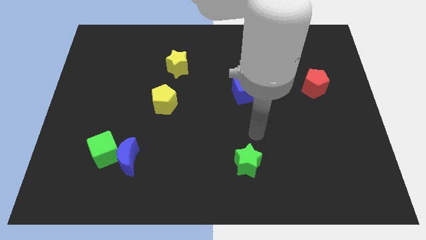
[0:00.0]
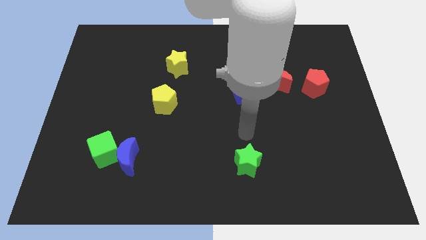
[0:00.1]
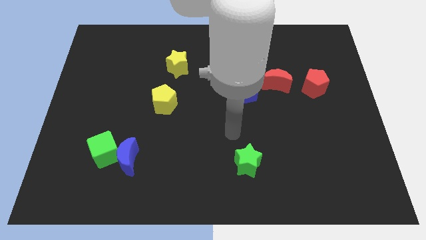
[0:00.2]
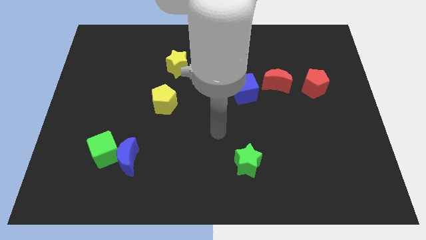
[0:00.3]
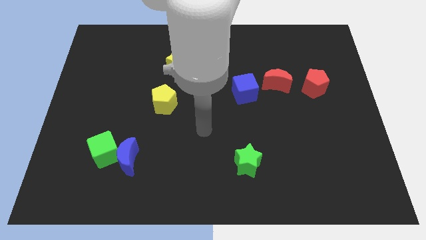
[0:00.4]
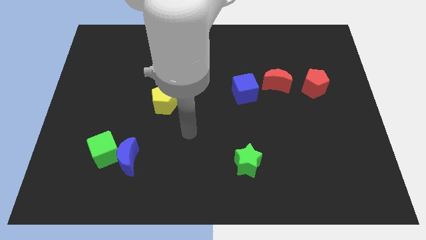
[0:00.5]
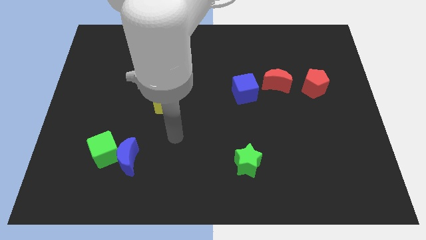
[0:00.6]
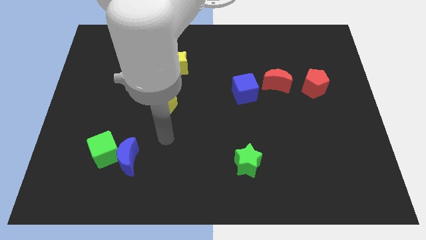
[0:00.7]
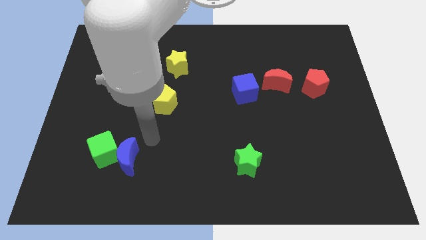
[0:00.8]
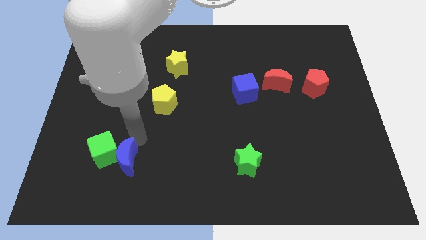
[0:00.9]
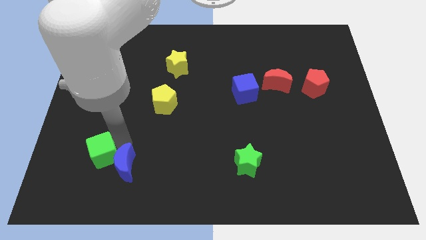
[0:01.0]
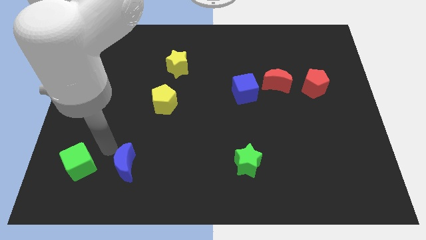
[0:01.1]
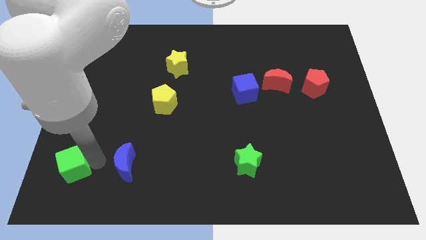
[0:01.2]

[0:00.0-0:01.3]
pull the blue moon apart from the green cube

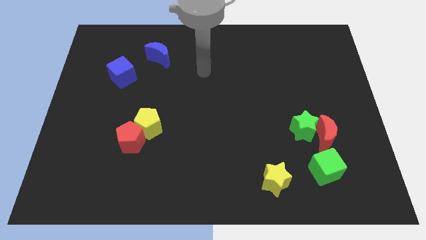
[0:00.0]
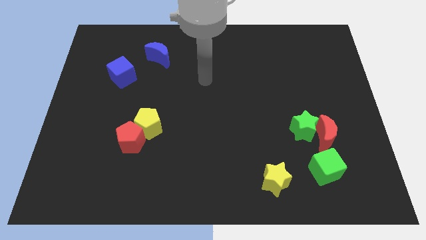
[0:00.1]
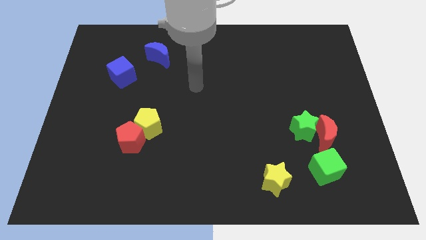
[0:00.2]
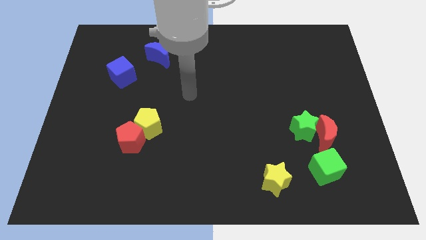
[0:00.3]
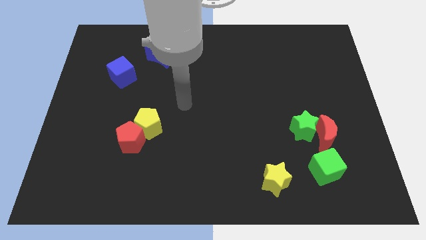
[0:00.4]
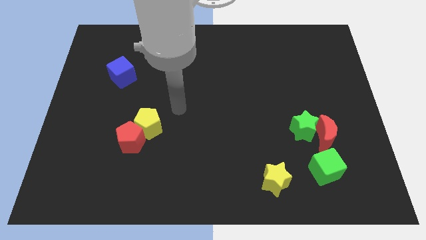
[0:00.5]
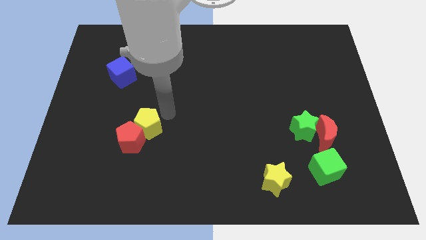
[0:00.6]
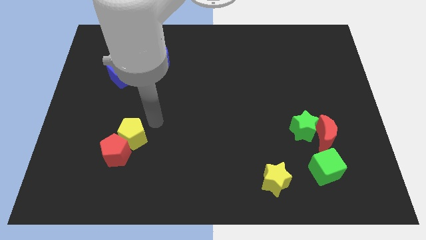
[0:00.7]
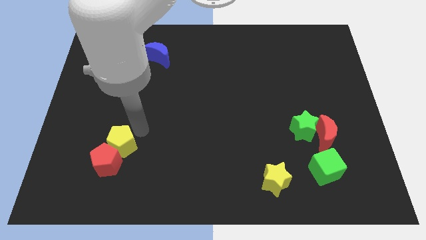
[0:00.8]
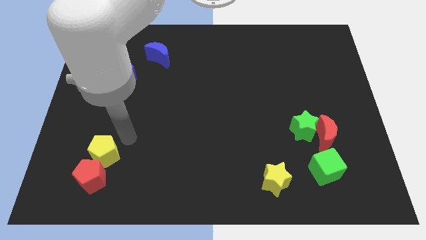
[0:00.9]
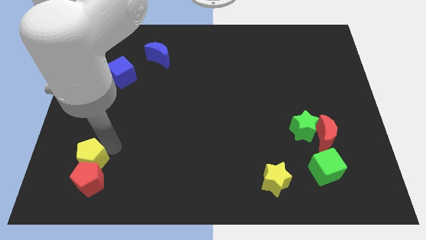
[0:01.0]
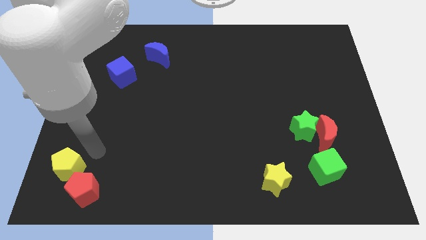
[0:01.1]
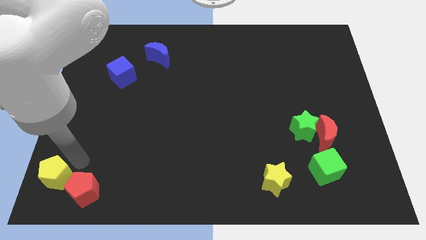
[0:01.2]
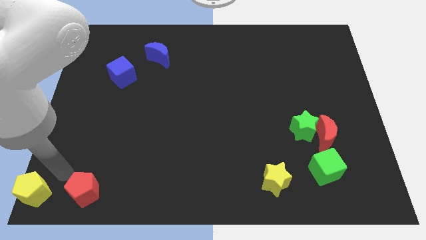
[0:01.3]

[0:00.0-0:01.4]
move the red pentagon away from the yellow pentagon

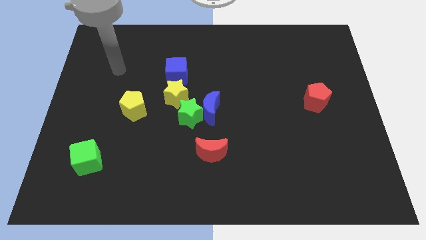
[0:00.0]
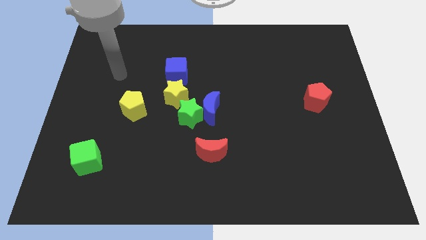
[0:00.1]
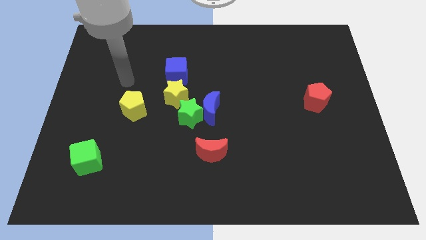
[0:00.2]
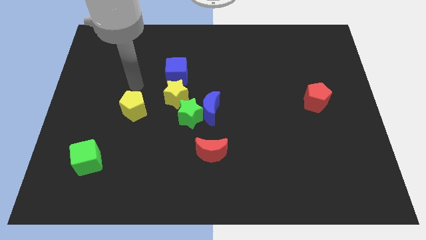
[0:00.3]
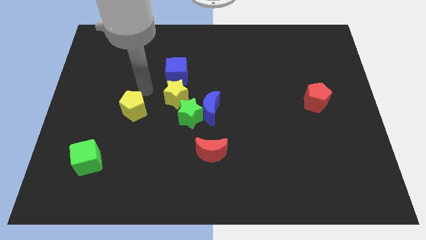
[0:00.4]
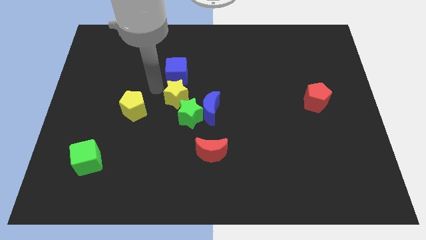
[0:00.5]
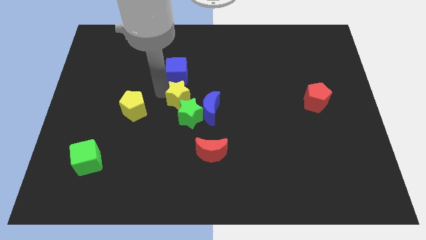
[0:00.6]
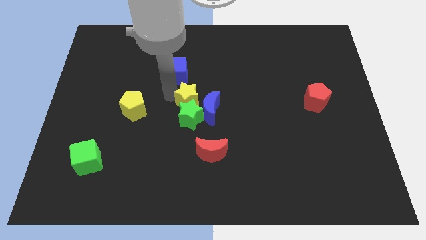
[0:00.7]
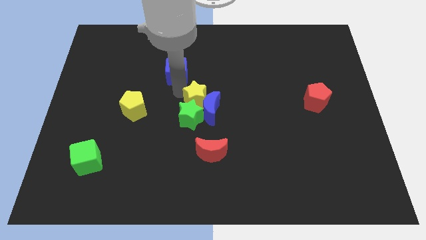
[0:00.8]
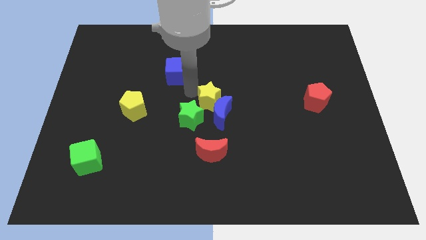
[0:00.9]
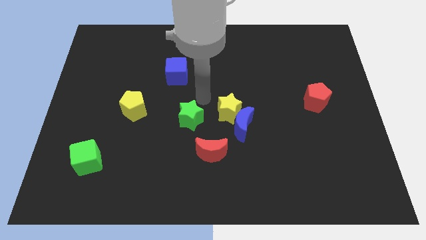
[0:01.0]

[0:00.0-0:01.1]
pull the green star apart from the blue moon and yellow star

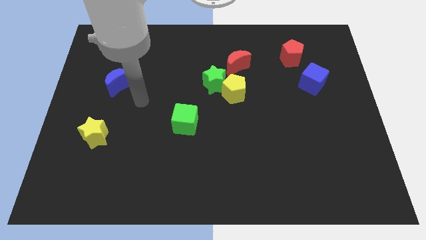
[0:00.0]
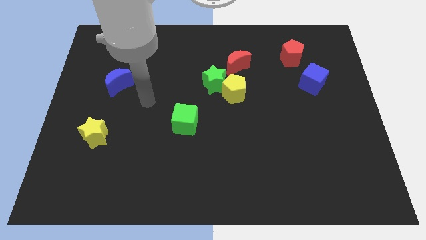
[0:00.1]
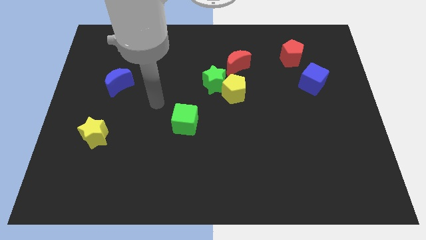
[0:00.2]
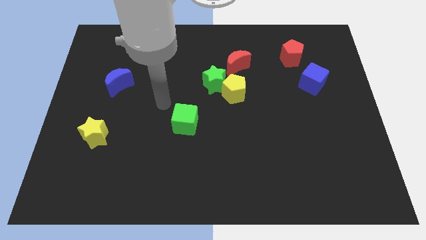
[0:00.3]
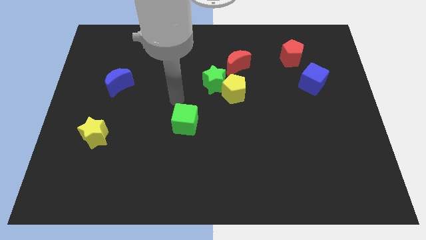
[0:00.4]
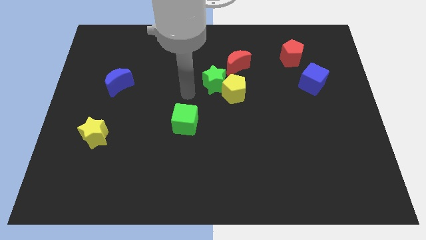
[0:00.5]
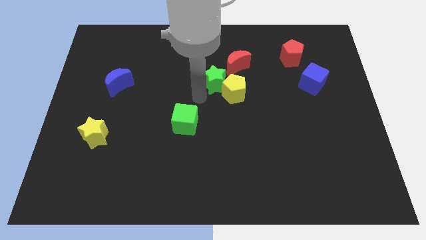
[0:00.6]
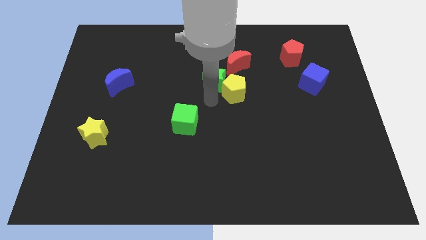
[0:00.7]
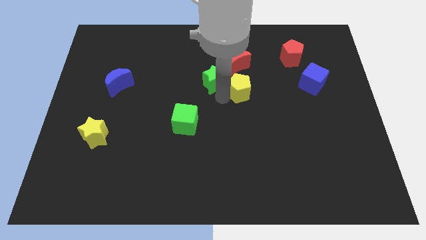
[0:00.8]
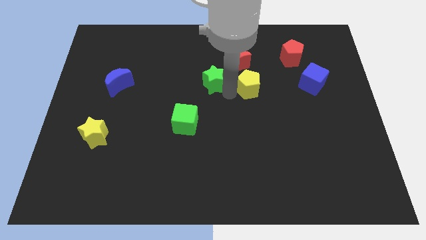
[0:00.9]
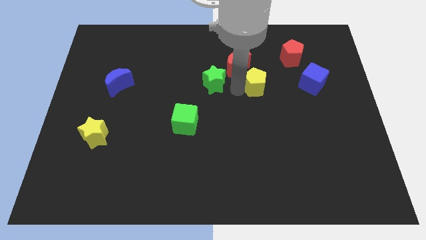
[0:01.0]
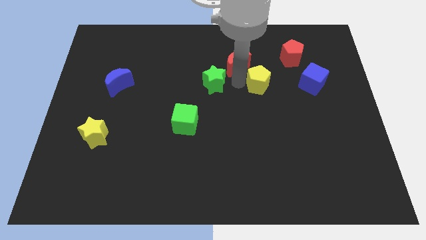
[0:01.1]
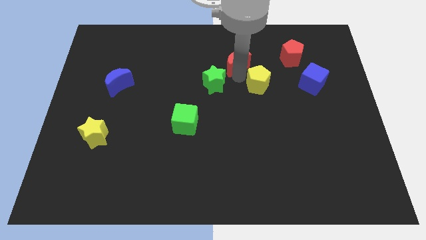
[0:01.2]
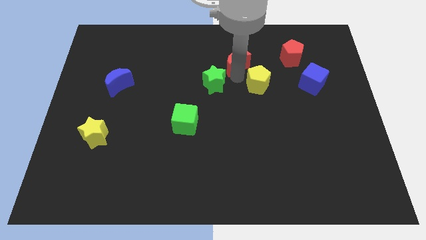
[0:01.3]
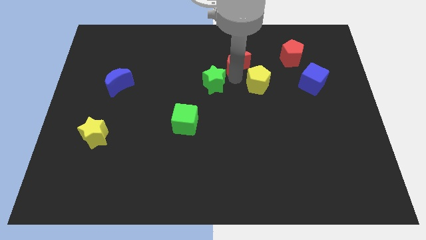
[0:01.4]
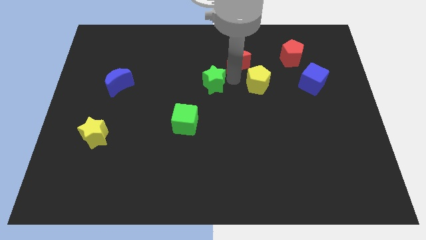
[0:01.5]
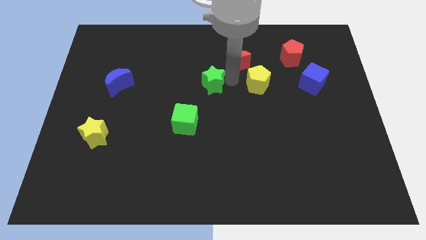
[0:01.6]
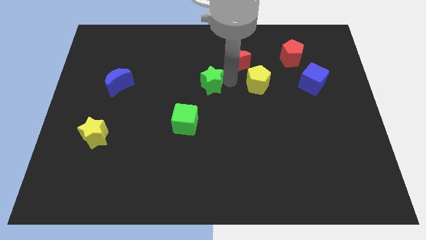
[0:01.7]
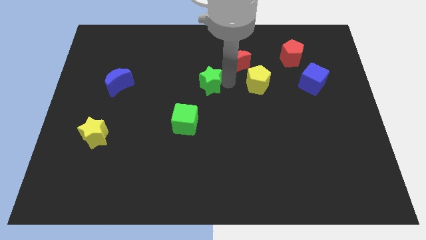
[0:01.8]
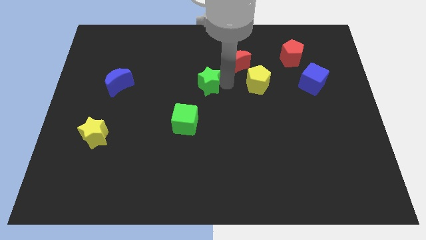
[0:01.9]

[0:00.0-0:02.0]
pull the green star apart from the yellow pentagon and red moon

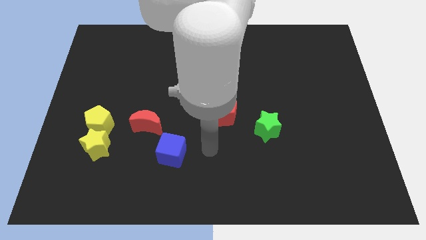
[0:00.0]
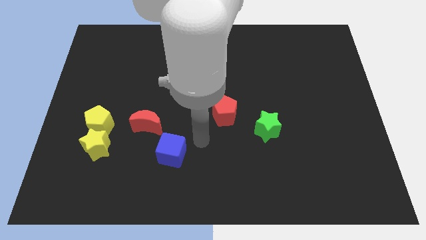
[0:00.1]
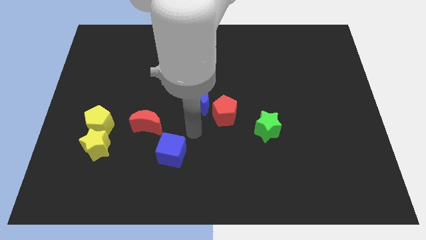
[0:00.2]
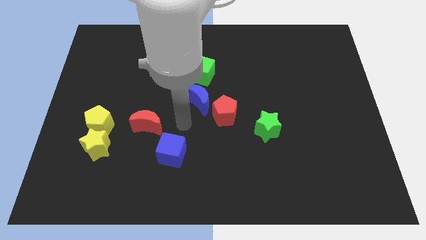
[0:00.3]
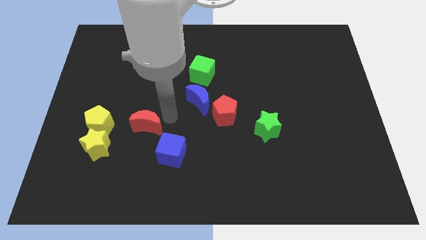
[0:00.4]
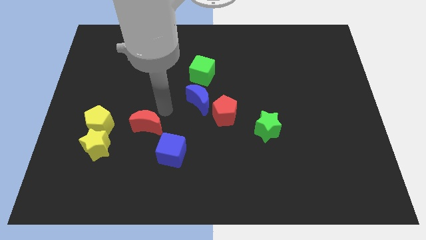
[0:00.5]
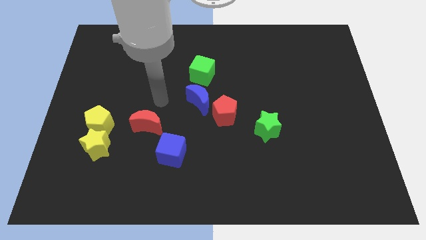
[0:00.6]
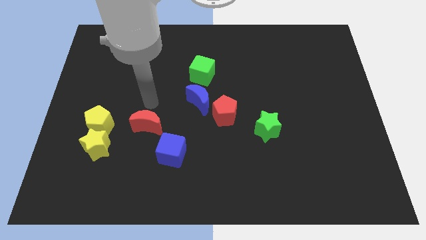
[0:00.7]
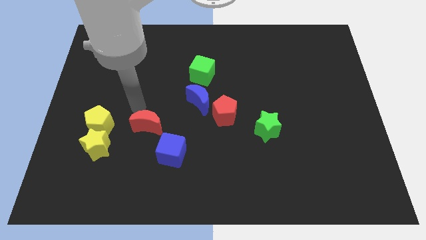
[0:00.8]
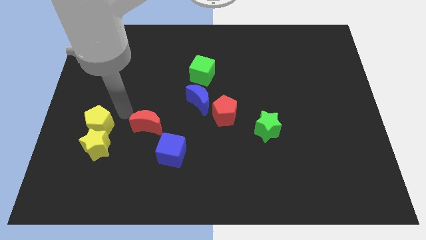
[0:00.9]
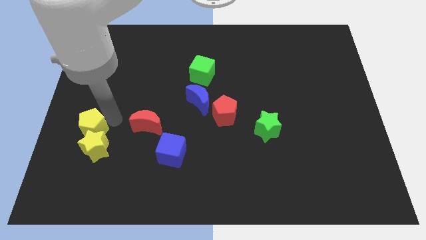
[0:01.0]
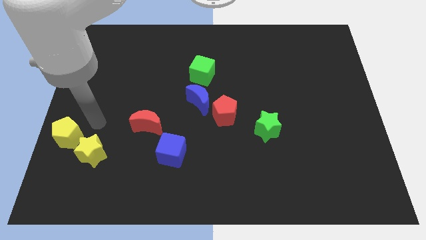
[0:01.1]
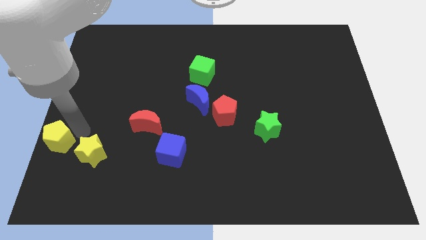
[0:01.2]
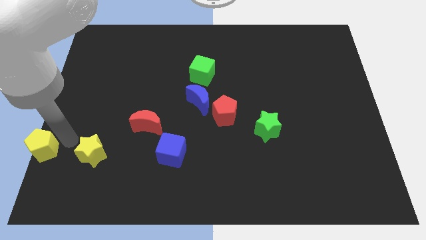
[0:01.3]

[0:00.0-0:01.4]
separate the yellow star from the yellow pentagon

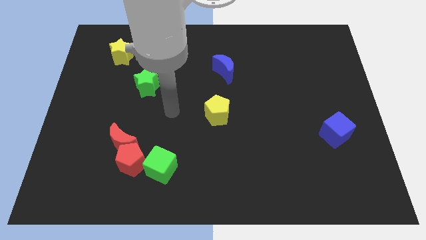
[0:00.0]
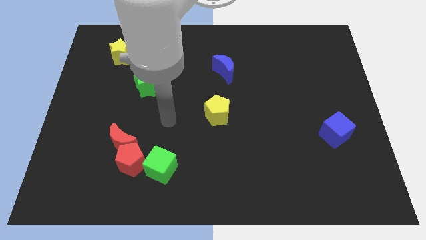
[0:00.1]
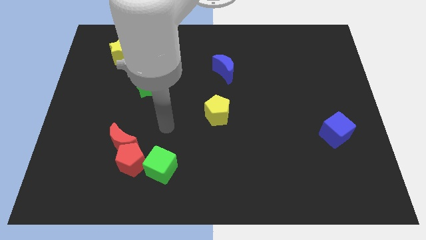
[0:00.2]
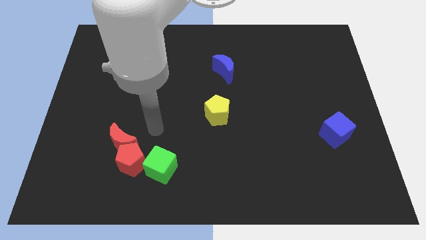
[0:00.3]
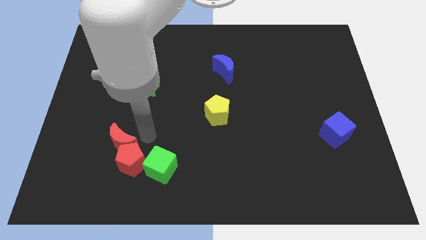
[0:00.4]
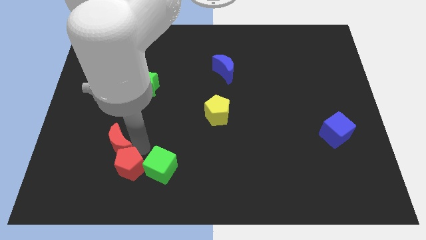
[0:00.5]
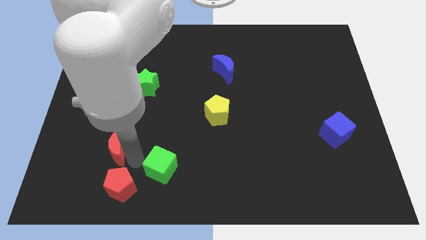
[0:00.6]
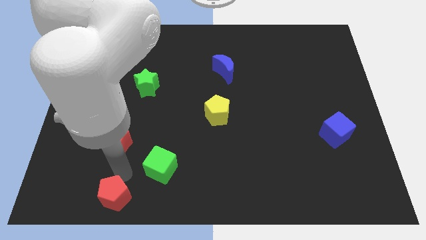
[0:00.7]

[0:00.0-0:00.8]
pull the red moon apart from the red pentagon

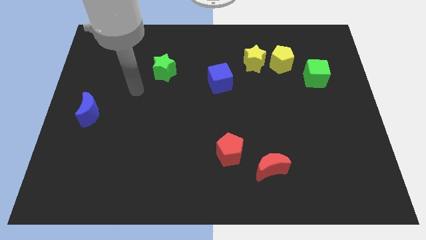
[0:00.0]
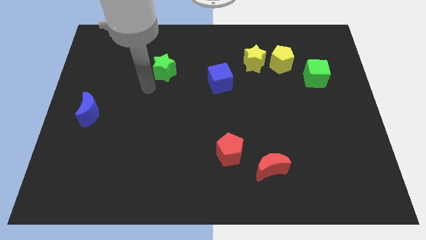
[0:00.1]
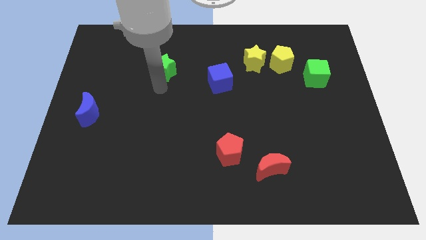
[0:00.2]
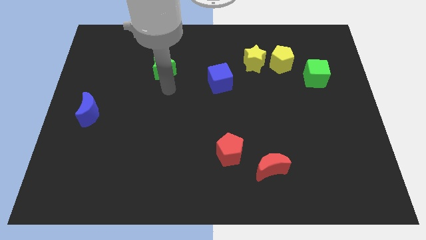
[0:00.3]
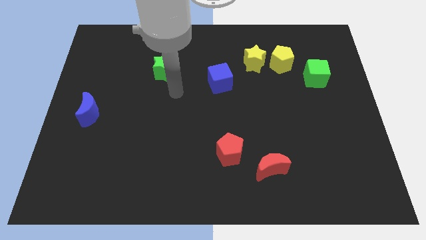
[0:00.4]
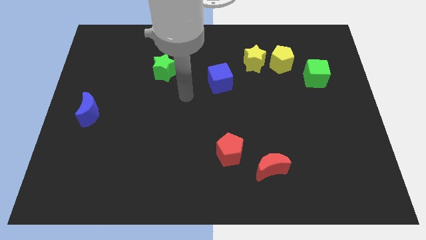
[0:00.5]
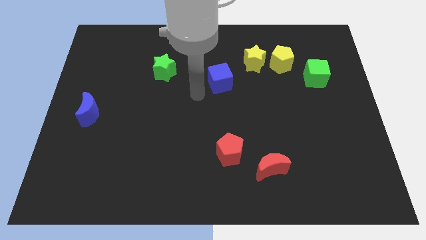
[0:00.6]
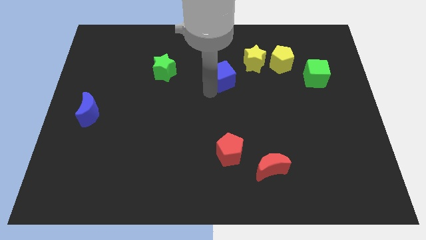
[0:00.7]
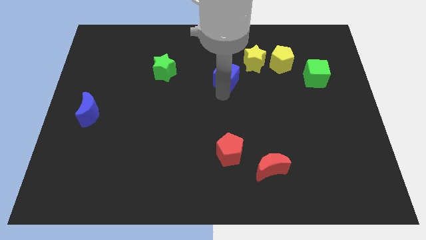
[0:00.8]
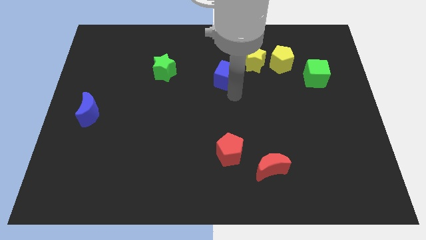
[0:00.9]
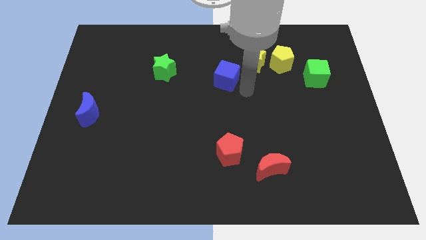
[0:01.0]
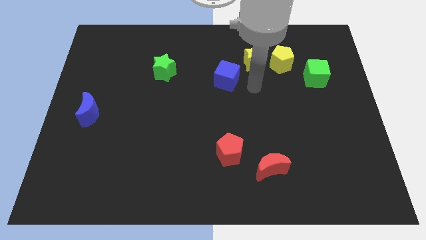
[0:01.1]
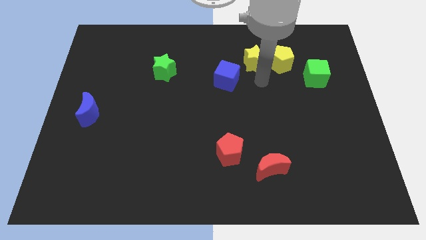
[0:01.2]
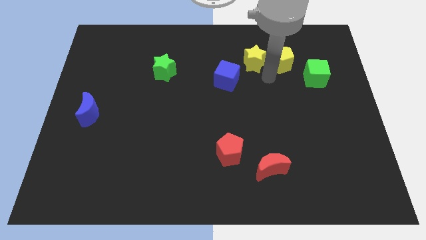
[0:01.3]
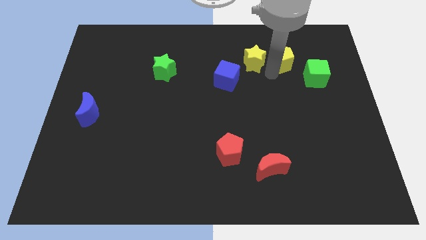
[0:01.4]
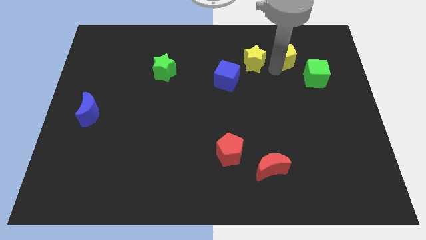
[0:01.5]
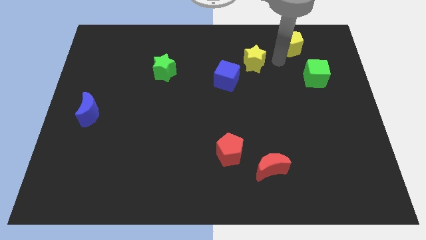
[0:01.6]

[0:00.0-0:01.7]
move the yellow star away from the yellow pentagon
